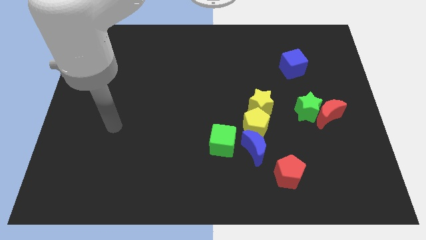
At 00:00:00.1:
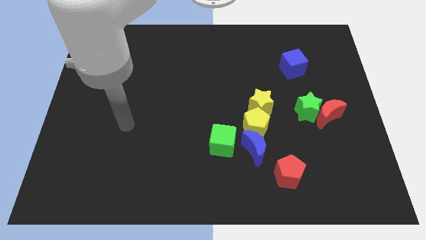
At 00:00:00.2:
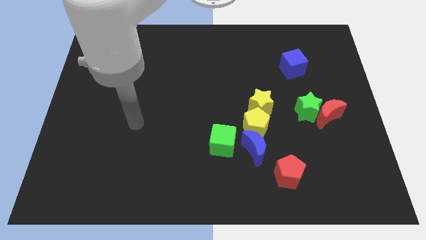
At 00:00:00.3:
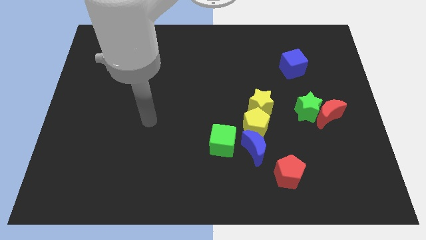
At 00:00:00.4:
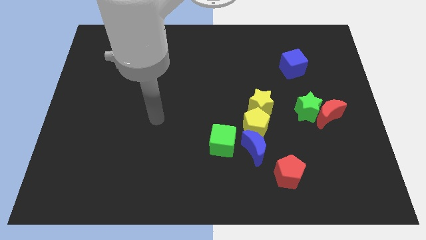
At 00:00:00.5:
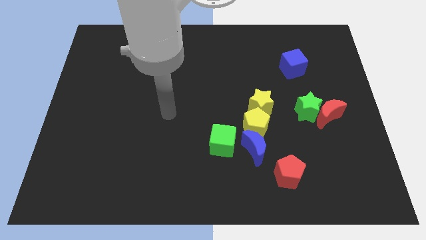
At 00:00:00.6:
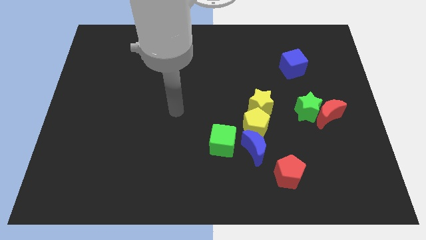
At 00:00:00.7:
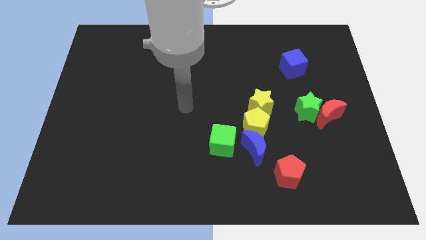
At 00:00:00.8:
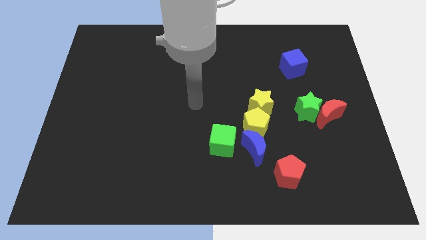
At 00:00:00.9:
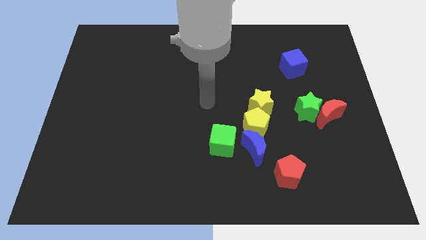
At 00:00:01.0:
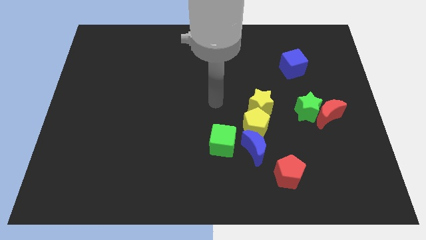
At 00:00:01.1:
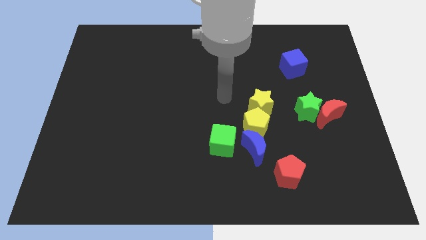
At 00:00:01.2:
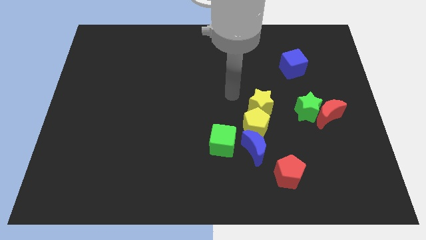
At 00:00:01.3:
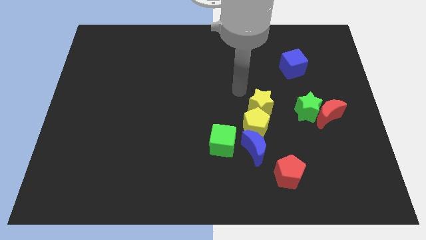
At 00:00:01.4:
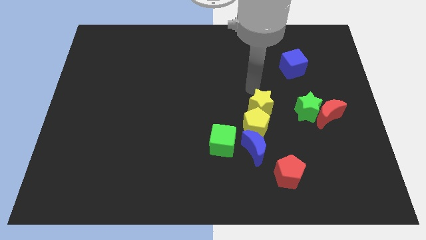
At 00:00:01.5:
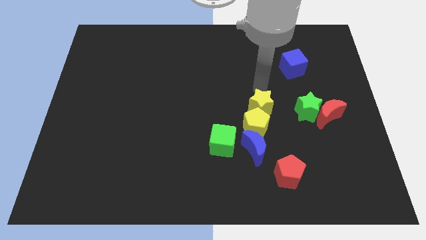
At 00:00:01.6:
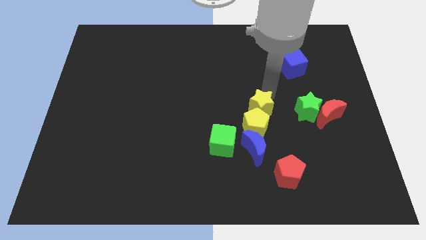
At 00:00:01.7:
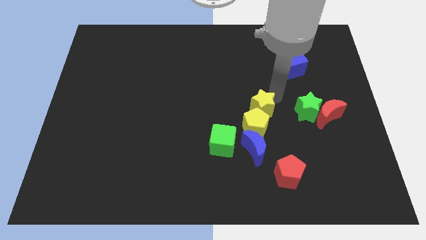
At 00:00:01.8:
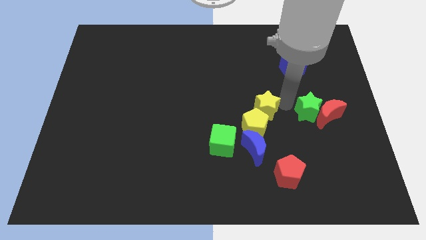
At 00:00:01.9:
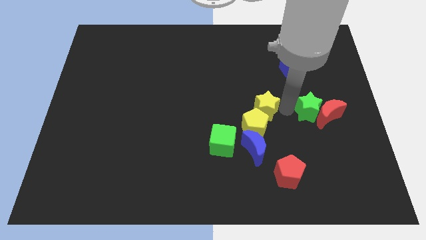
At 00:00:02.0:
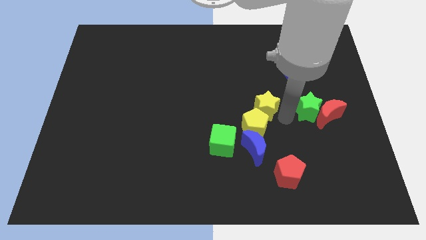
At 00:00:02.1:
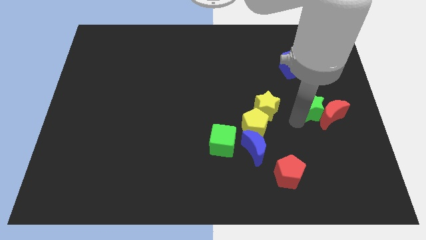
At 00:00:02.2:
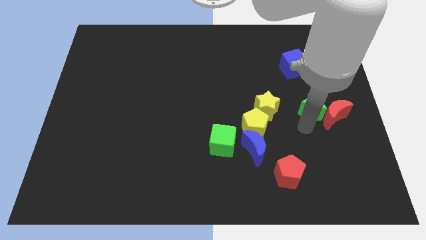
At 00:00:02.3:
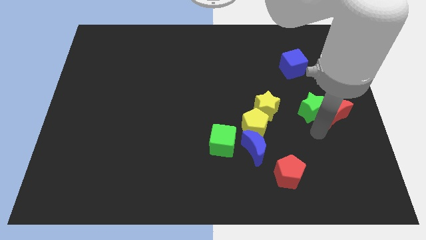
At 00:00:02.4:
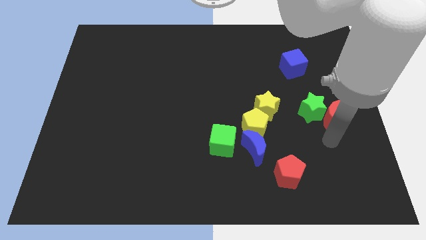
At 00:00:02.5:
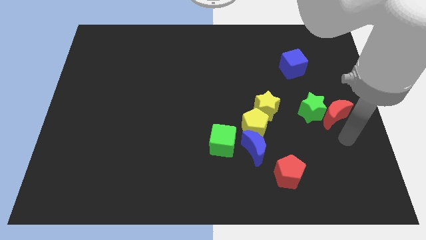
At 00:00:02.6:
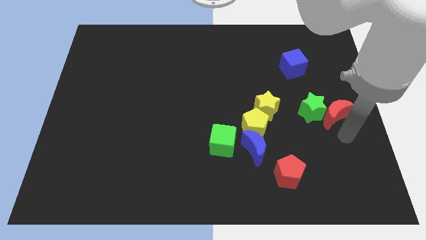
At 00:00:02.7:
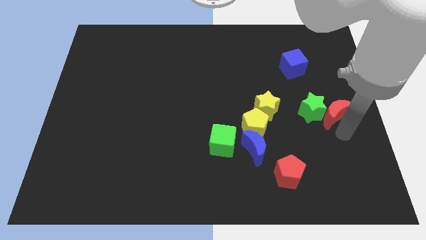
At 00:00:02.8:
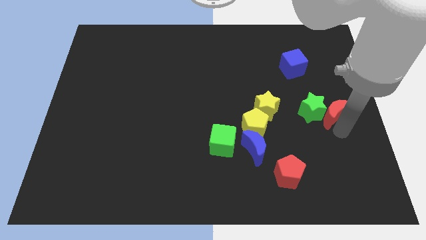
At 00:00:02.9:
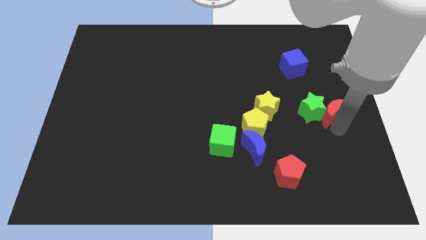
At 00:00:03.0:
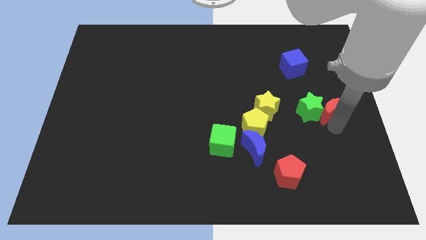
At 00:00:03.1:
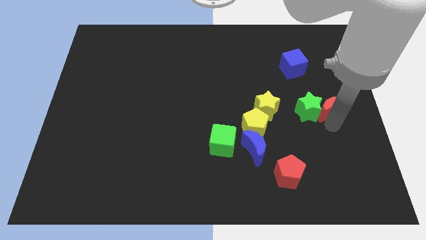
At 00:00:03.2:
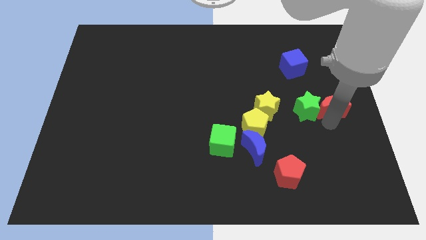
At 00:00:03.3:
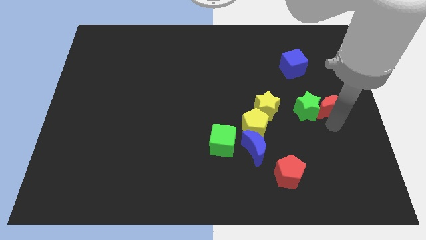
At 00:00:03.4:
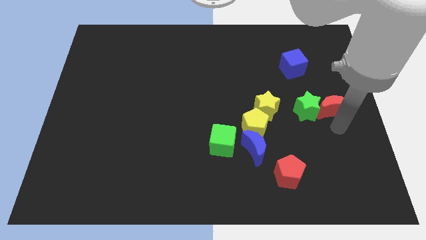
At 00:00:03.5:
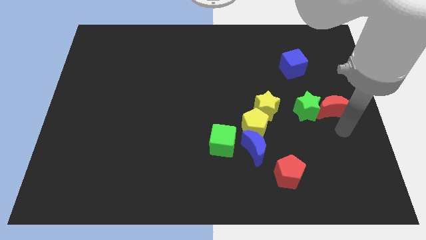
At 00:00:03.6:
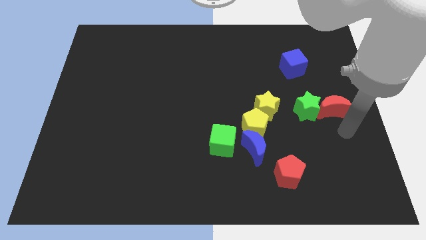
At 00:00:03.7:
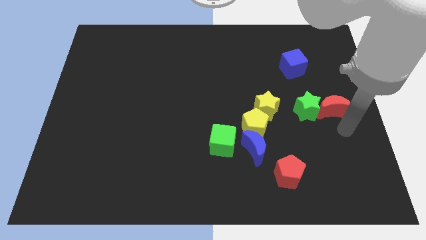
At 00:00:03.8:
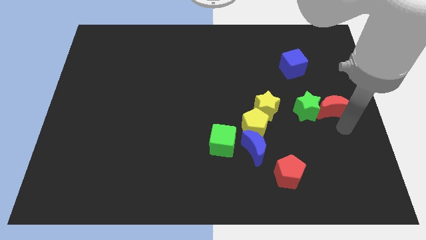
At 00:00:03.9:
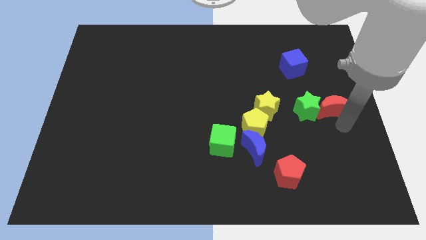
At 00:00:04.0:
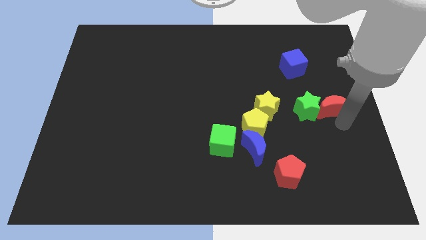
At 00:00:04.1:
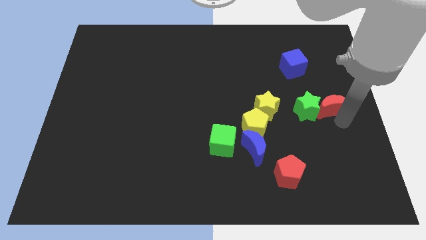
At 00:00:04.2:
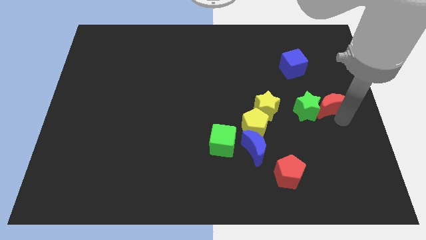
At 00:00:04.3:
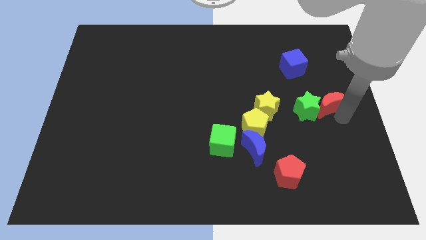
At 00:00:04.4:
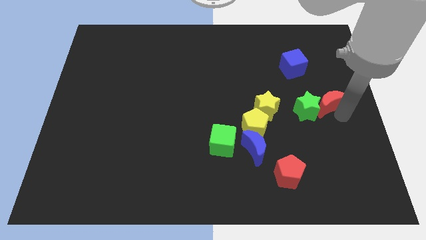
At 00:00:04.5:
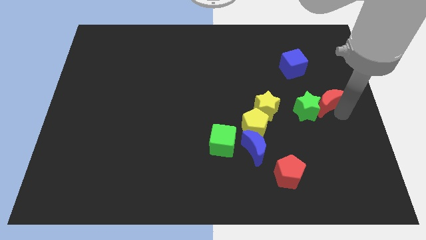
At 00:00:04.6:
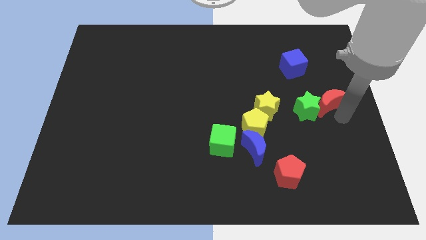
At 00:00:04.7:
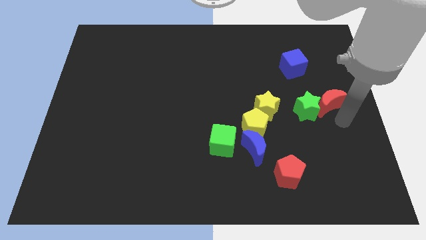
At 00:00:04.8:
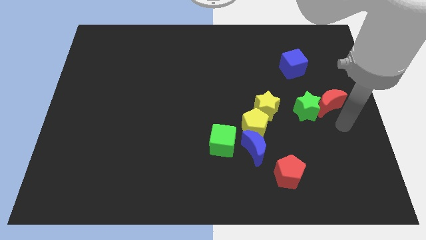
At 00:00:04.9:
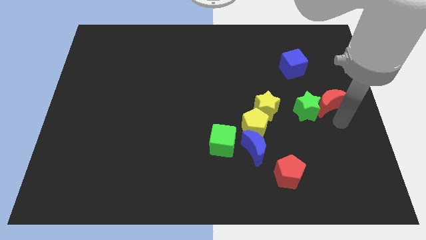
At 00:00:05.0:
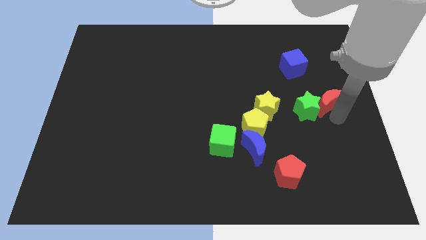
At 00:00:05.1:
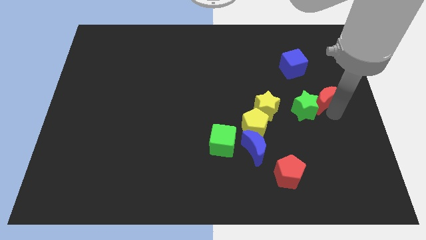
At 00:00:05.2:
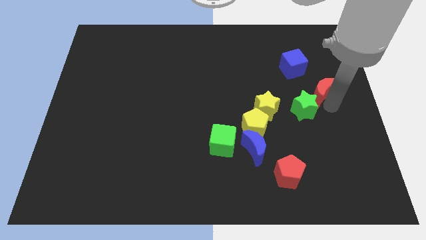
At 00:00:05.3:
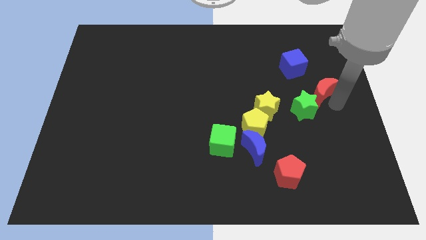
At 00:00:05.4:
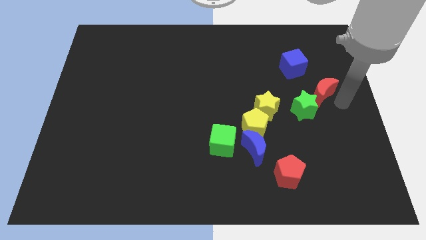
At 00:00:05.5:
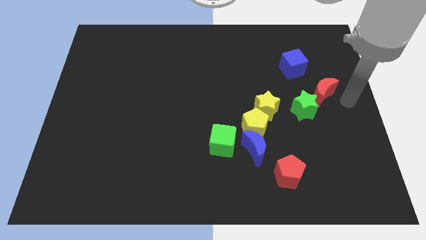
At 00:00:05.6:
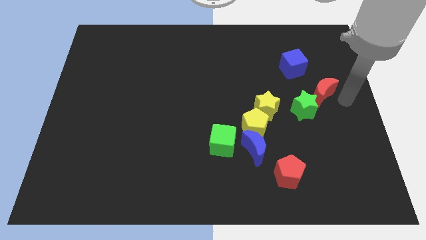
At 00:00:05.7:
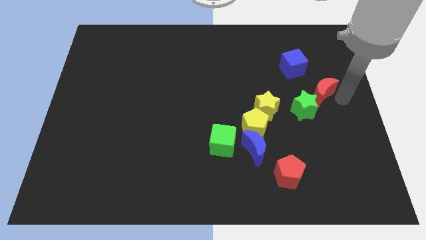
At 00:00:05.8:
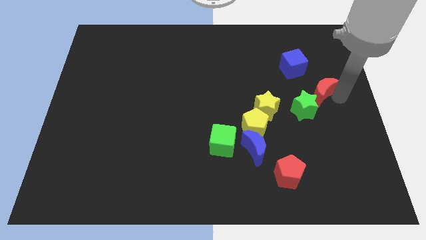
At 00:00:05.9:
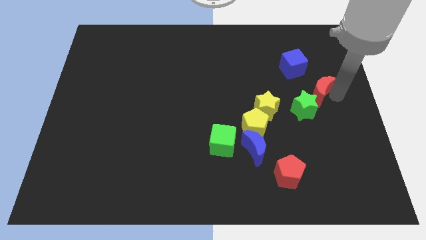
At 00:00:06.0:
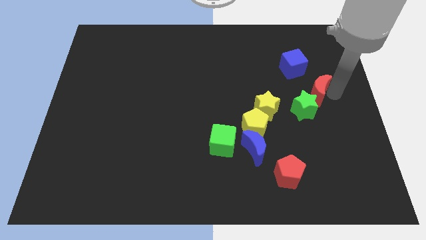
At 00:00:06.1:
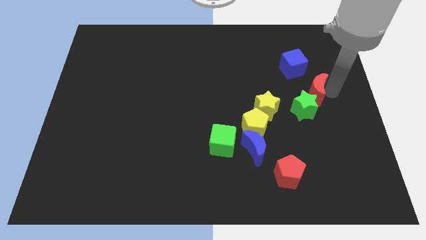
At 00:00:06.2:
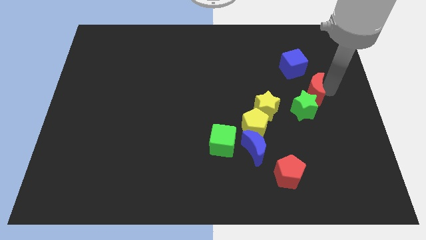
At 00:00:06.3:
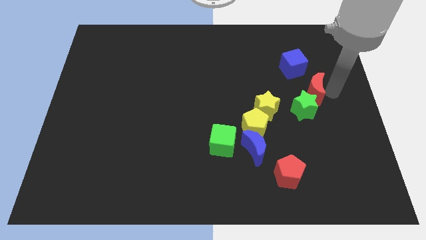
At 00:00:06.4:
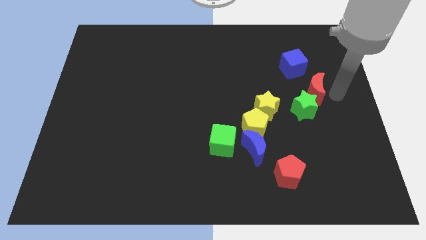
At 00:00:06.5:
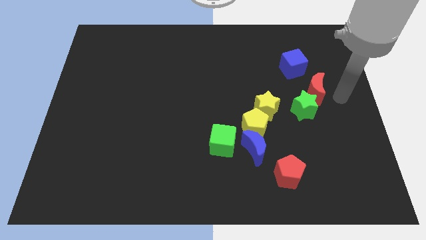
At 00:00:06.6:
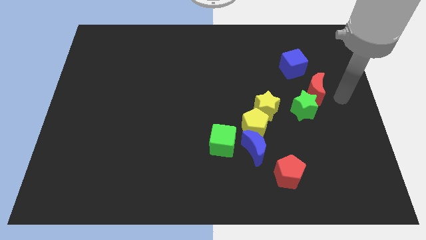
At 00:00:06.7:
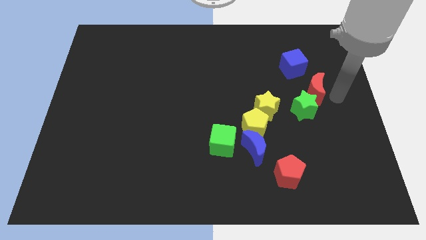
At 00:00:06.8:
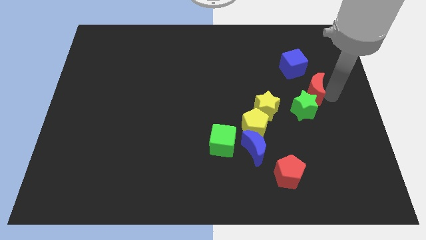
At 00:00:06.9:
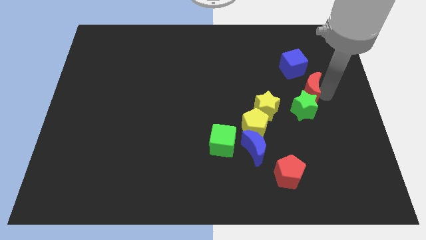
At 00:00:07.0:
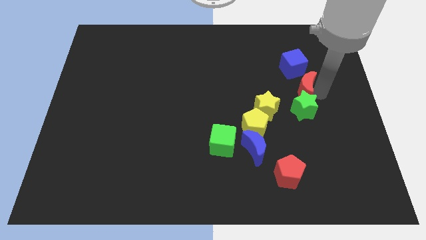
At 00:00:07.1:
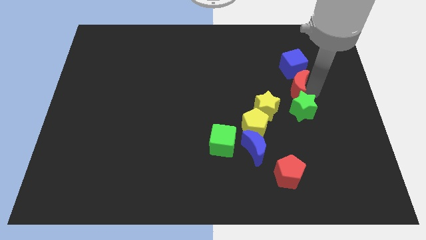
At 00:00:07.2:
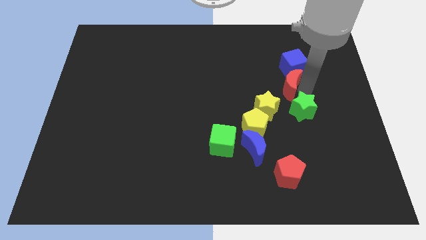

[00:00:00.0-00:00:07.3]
move the red moon to the bottom left side of the blue cube
